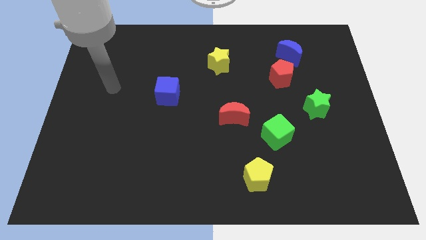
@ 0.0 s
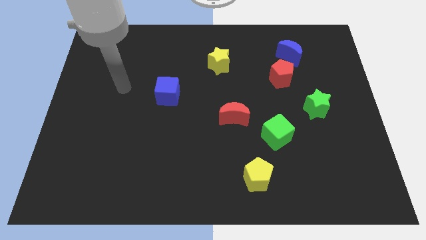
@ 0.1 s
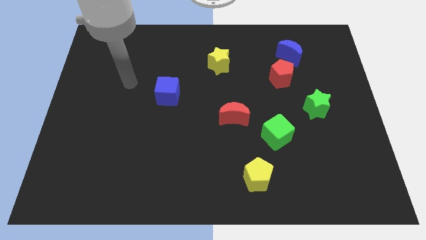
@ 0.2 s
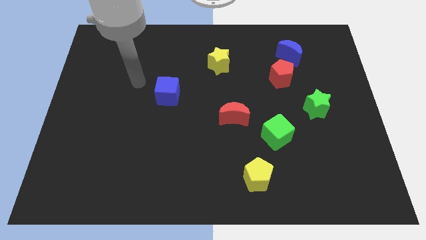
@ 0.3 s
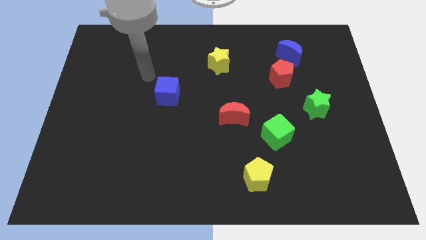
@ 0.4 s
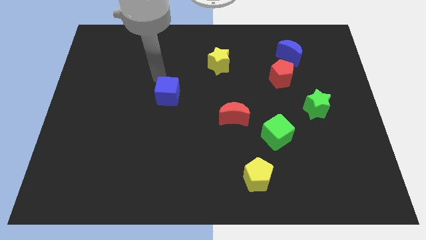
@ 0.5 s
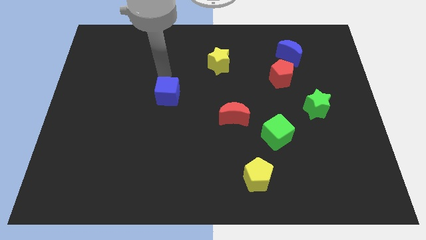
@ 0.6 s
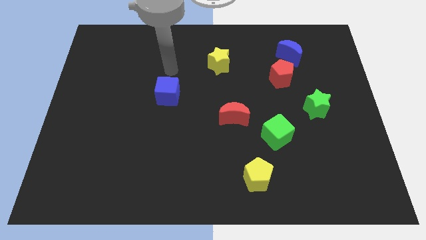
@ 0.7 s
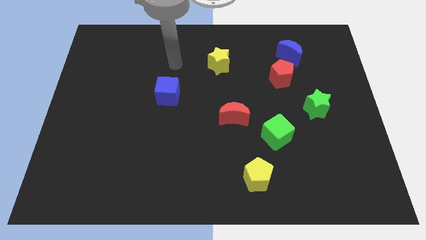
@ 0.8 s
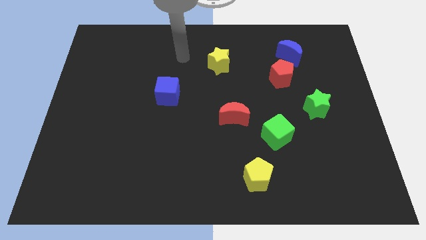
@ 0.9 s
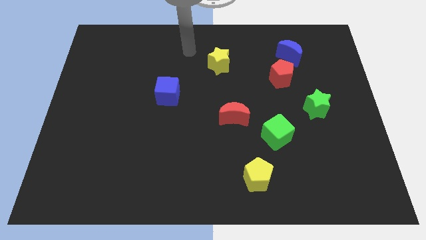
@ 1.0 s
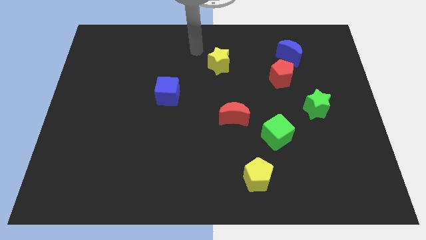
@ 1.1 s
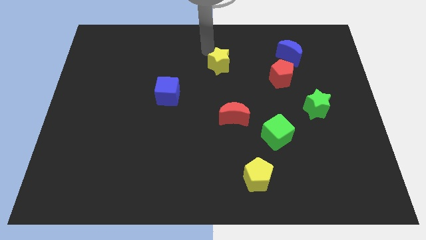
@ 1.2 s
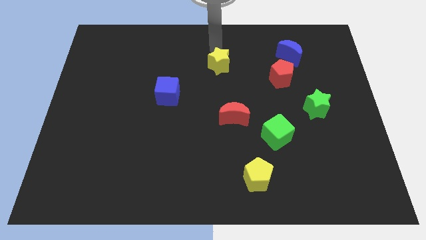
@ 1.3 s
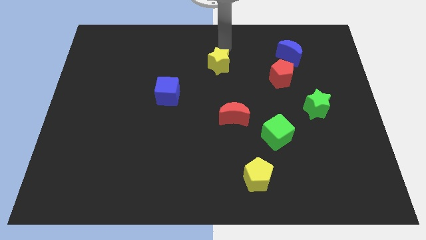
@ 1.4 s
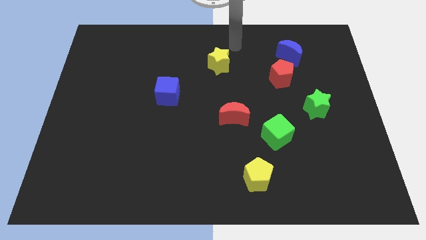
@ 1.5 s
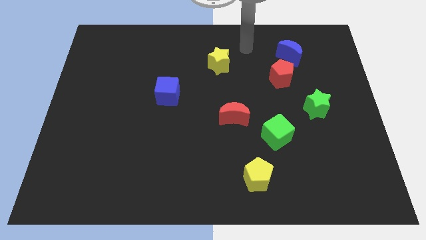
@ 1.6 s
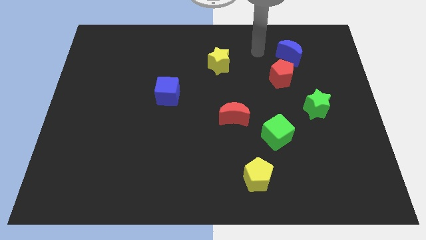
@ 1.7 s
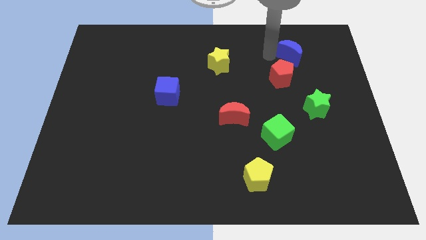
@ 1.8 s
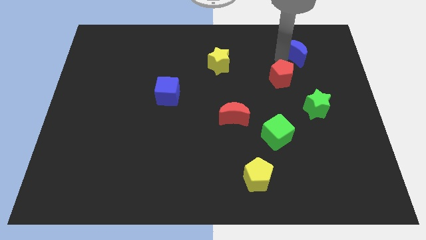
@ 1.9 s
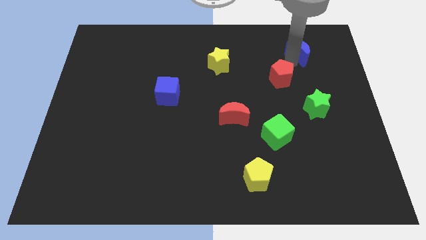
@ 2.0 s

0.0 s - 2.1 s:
move the red pentagon away from the blue moon

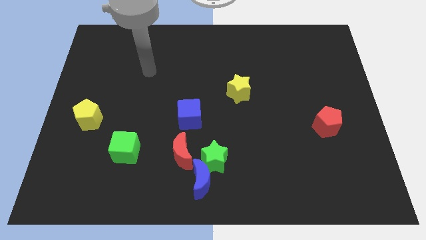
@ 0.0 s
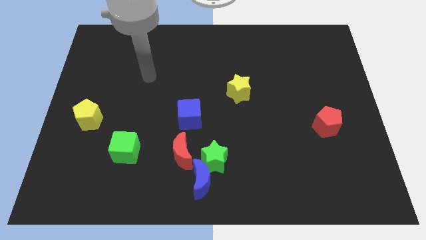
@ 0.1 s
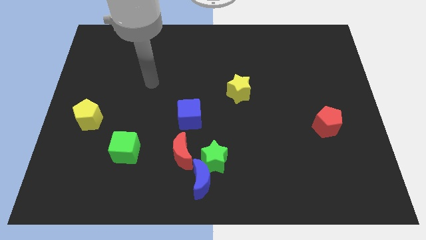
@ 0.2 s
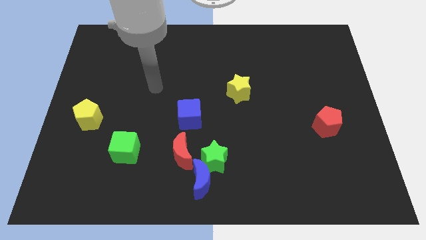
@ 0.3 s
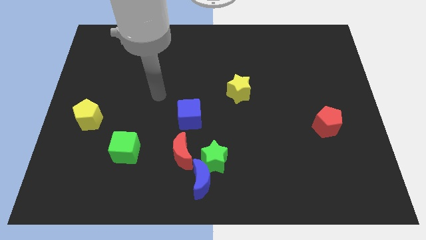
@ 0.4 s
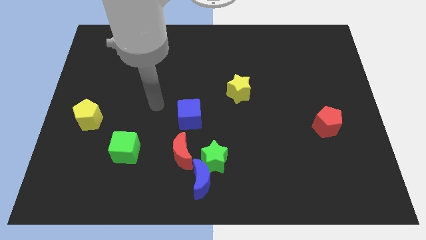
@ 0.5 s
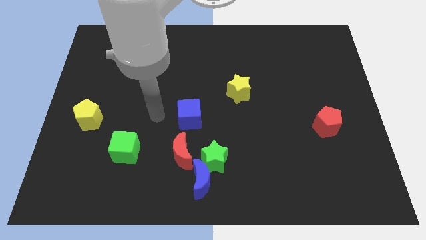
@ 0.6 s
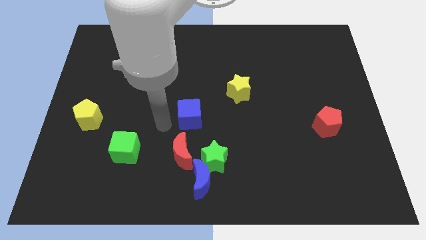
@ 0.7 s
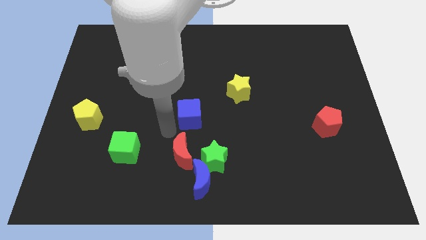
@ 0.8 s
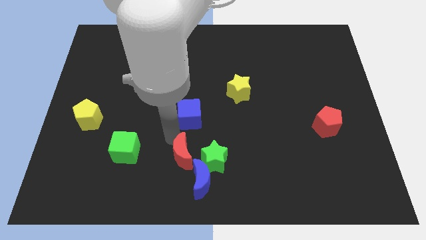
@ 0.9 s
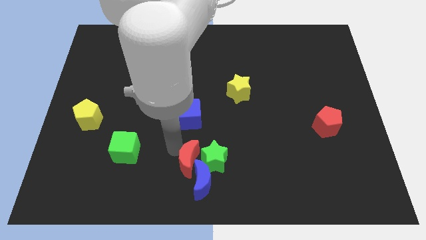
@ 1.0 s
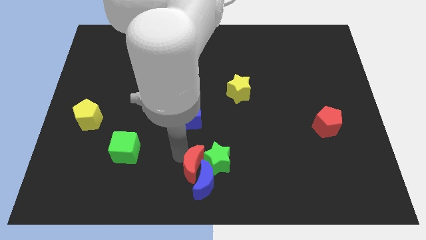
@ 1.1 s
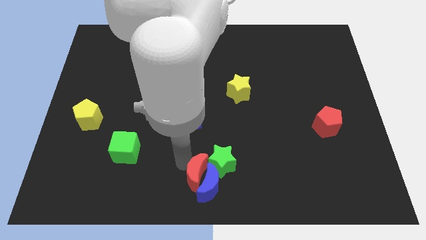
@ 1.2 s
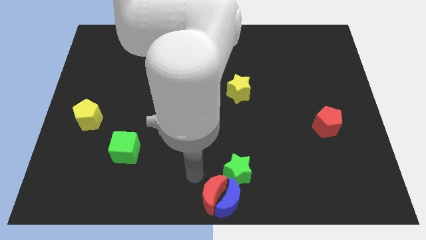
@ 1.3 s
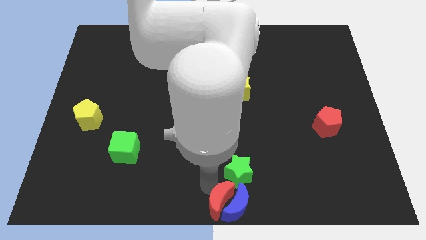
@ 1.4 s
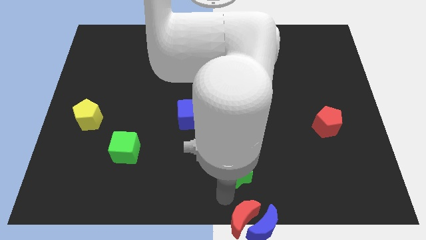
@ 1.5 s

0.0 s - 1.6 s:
pull the green star apart from the blue moon and red moon

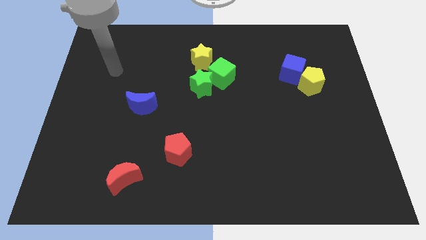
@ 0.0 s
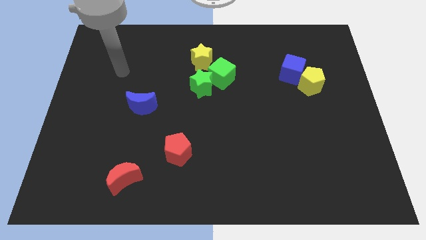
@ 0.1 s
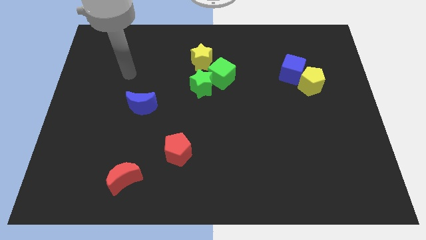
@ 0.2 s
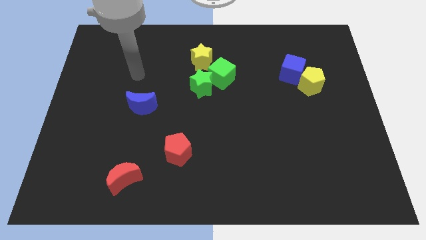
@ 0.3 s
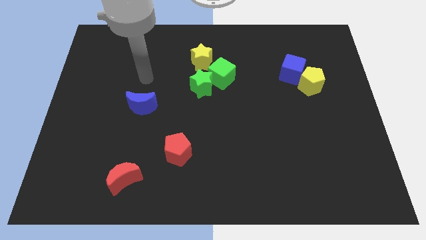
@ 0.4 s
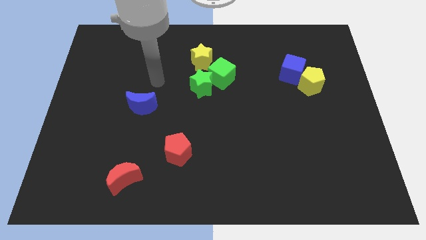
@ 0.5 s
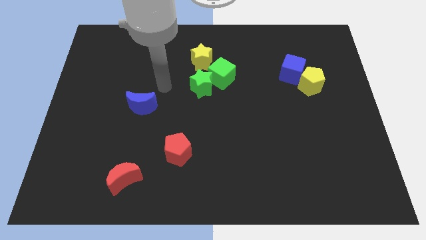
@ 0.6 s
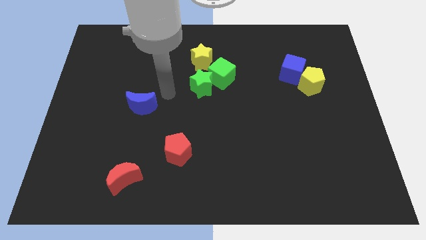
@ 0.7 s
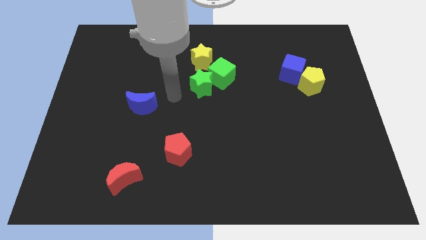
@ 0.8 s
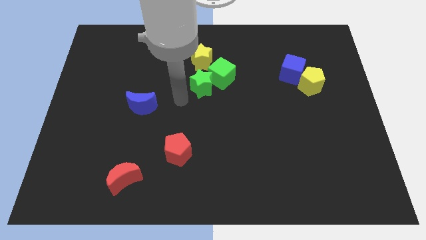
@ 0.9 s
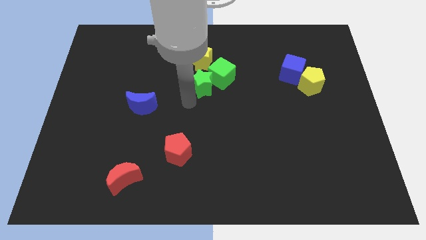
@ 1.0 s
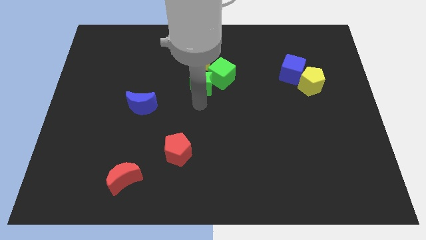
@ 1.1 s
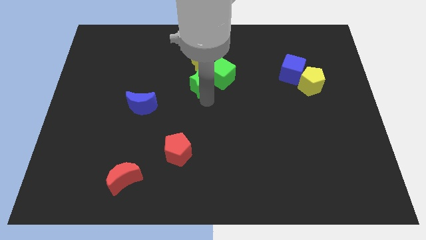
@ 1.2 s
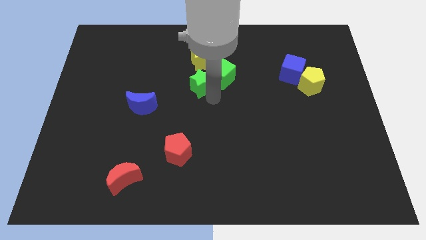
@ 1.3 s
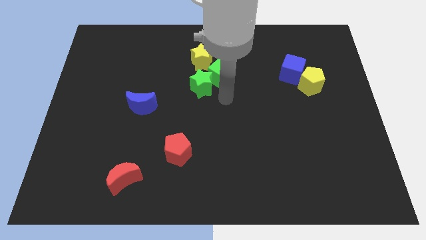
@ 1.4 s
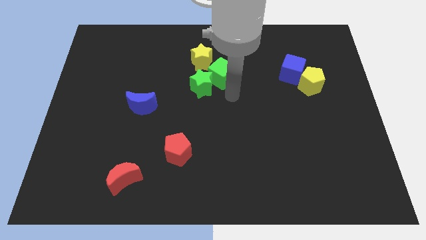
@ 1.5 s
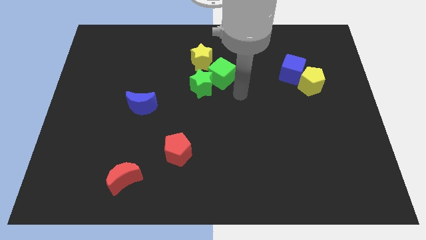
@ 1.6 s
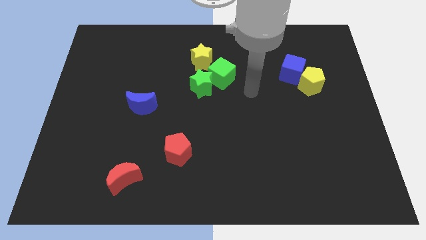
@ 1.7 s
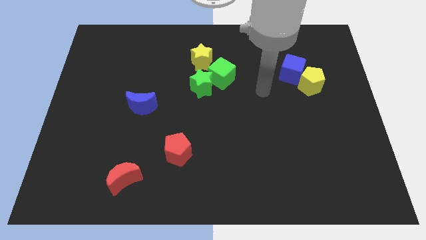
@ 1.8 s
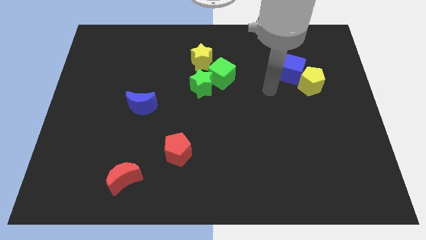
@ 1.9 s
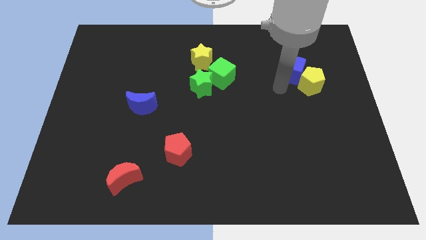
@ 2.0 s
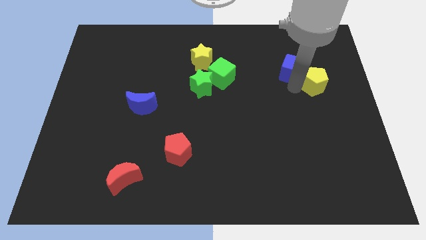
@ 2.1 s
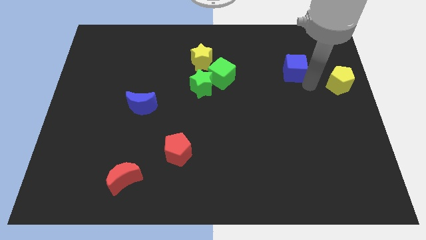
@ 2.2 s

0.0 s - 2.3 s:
pull the blue cube apart from the yellow pentagon

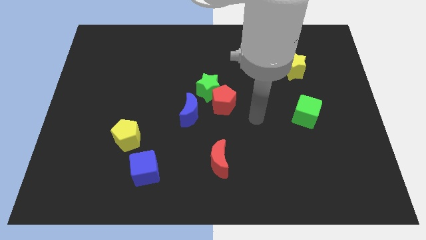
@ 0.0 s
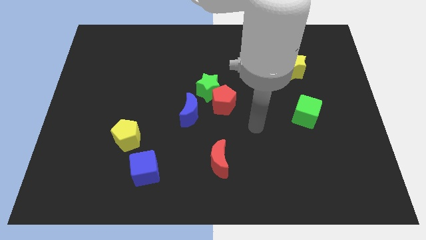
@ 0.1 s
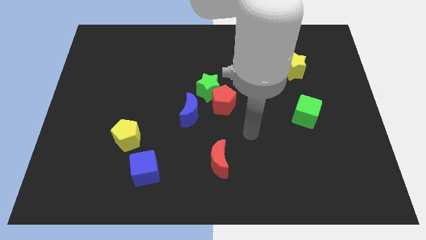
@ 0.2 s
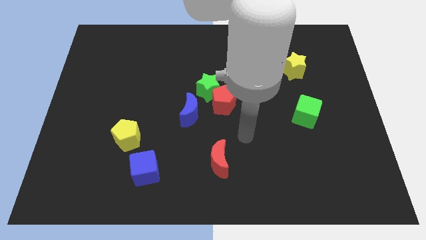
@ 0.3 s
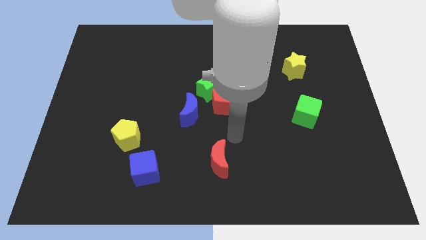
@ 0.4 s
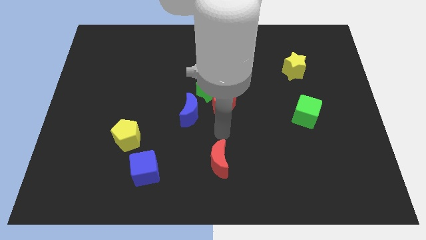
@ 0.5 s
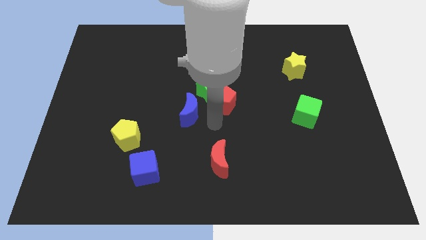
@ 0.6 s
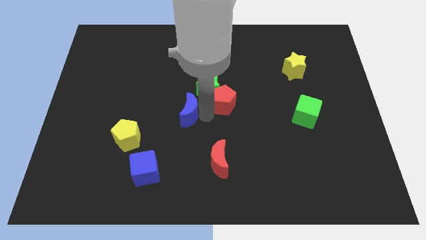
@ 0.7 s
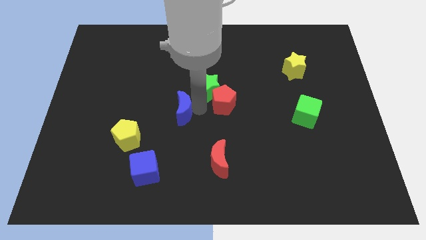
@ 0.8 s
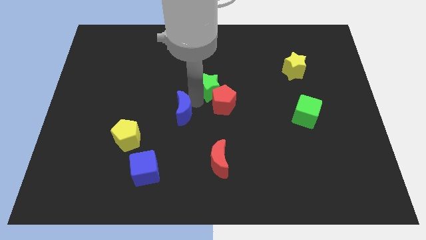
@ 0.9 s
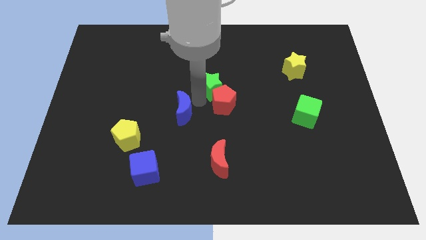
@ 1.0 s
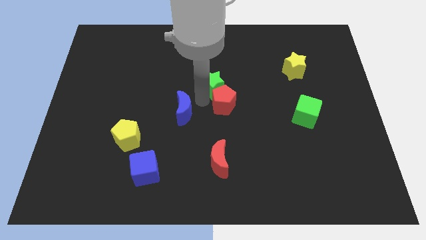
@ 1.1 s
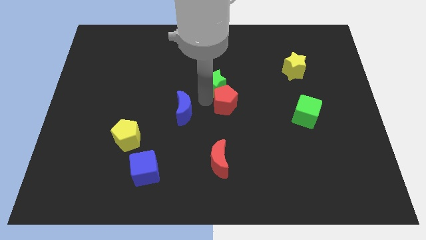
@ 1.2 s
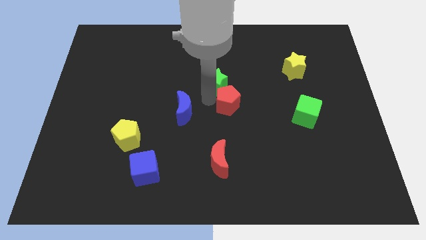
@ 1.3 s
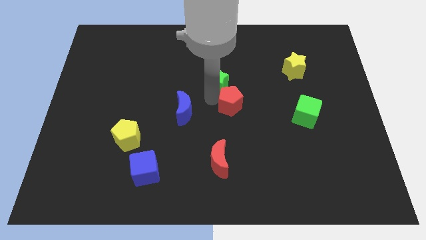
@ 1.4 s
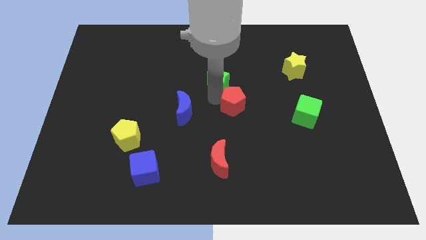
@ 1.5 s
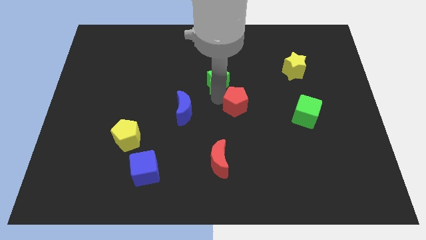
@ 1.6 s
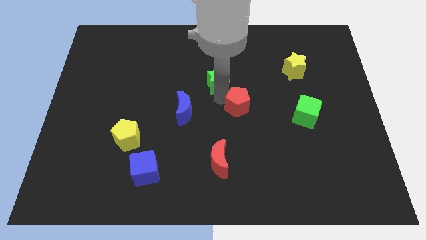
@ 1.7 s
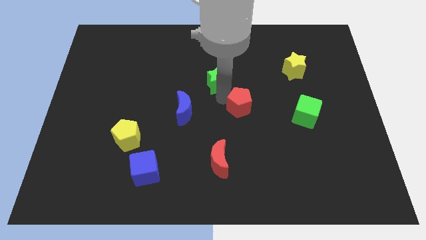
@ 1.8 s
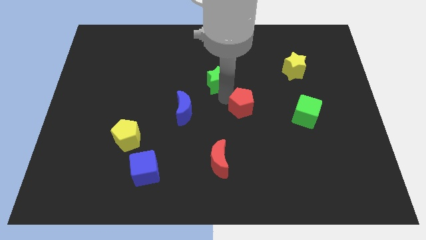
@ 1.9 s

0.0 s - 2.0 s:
move the red pentagon away from the green star and blue moon

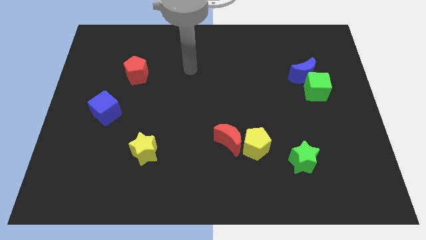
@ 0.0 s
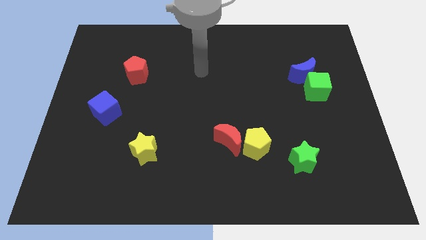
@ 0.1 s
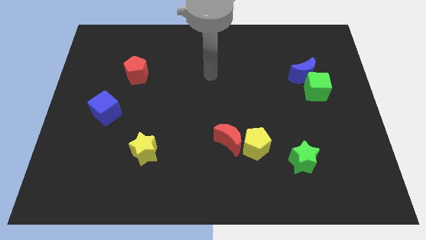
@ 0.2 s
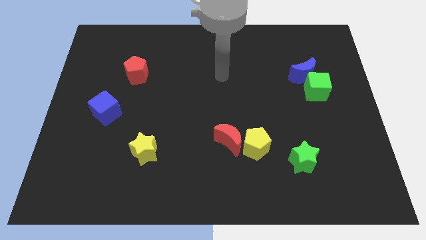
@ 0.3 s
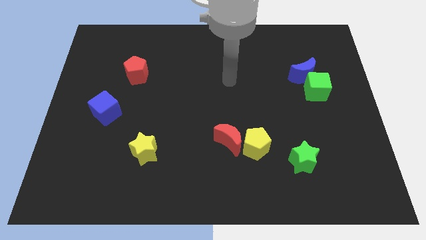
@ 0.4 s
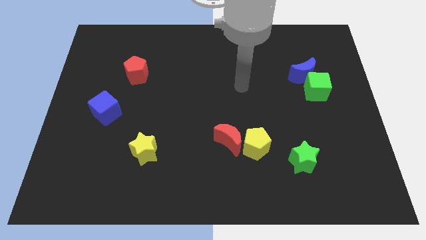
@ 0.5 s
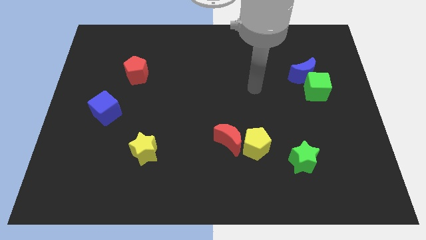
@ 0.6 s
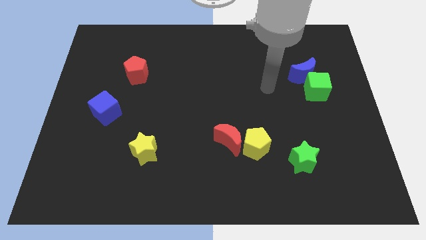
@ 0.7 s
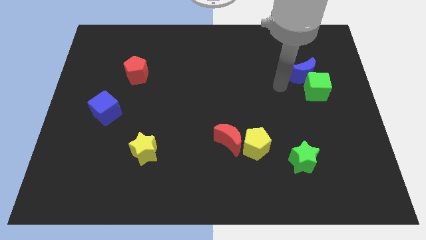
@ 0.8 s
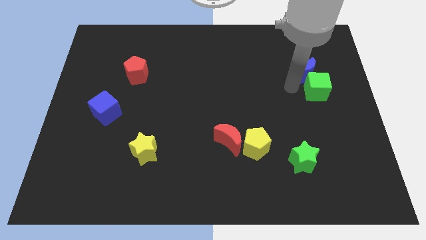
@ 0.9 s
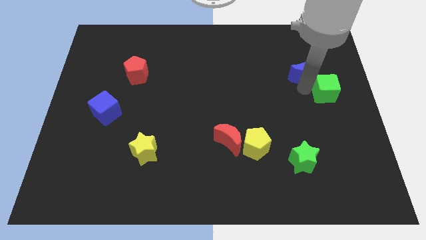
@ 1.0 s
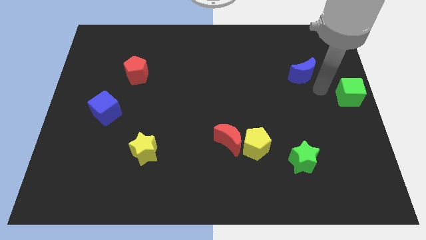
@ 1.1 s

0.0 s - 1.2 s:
pull the blue moon apart from the green cube
